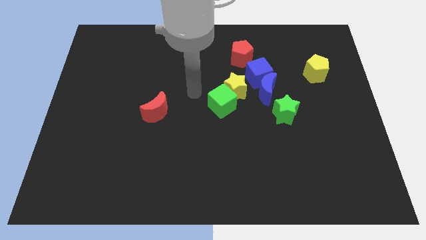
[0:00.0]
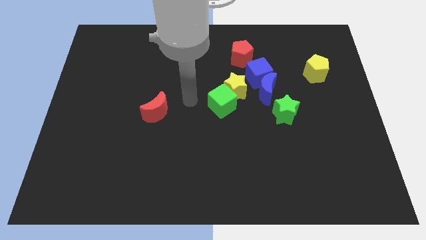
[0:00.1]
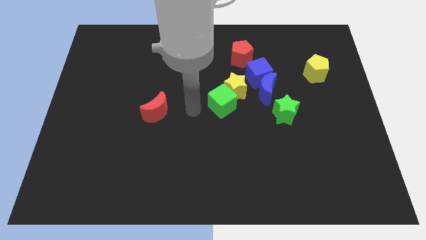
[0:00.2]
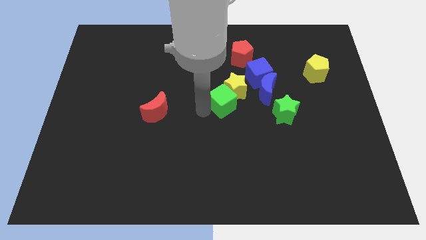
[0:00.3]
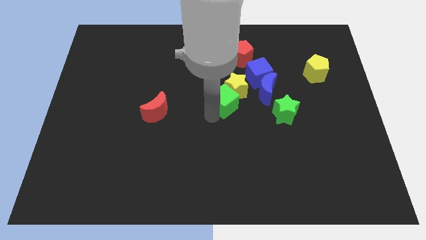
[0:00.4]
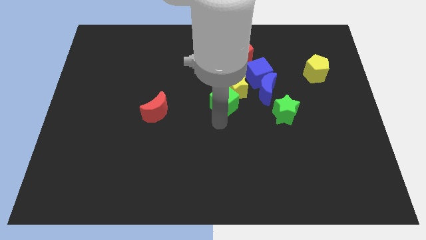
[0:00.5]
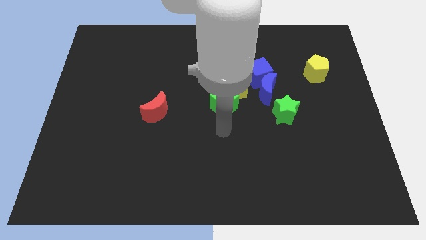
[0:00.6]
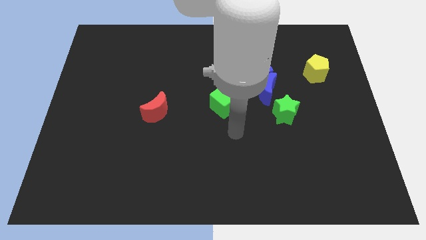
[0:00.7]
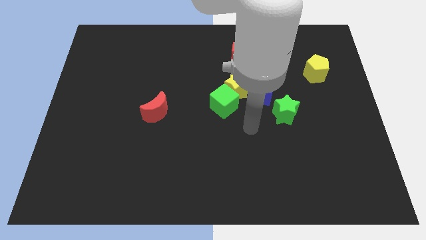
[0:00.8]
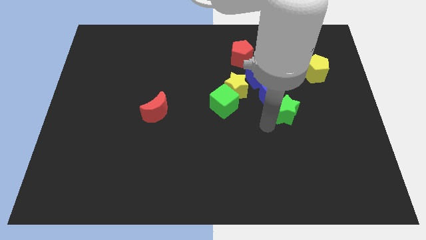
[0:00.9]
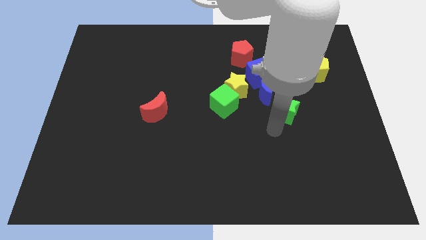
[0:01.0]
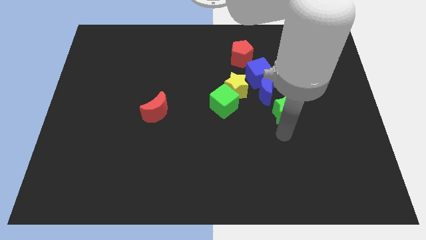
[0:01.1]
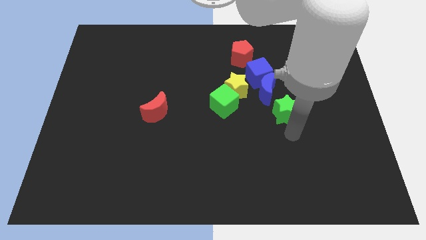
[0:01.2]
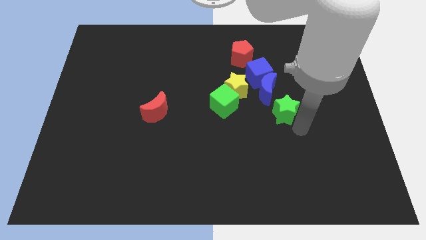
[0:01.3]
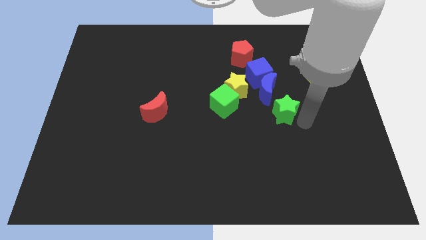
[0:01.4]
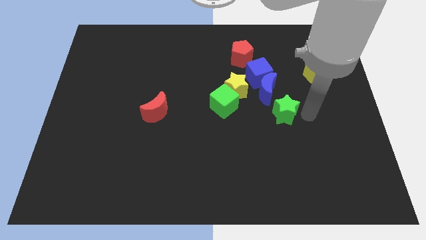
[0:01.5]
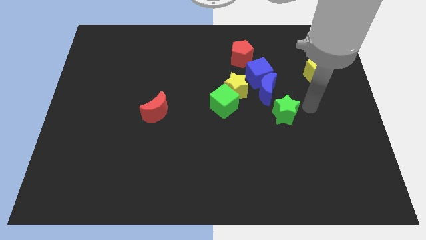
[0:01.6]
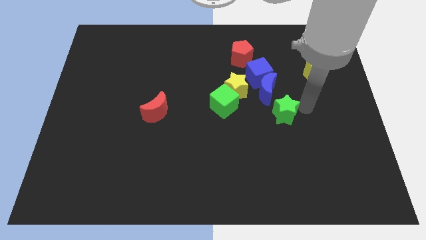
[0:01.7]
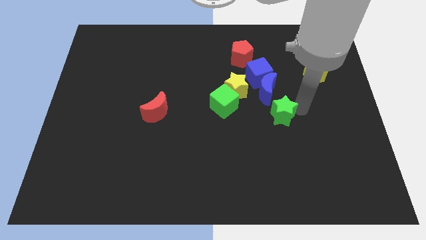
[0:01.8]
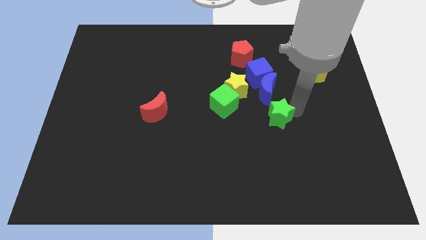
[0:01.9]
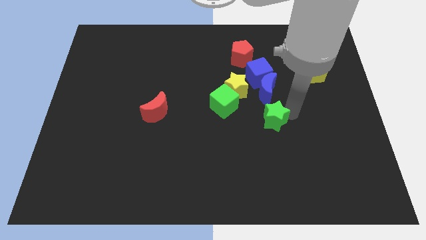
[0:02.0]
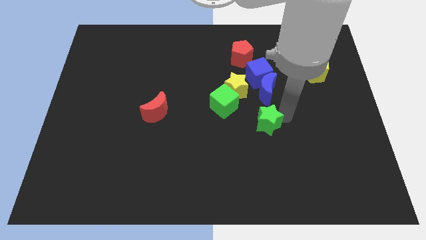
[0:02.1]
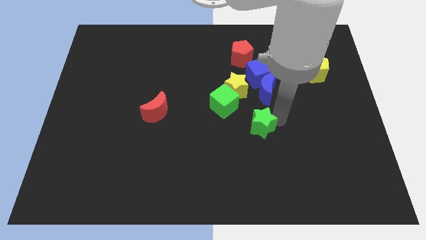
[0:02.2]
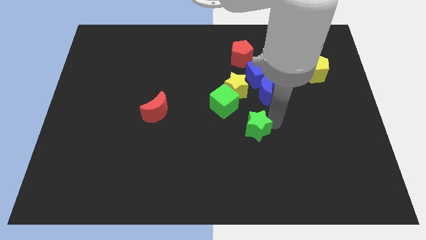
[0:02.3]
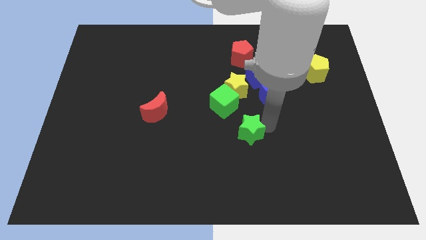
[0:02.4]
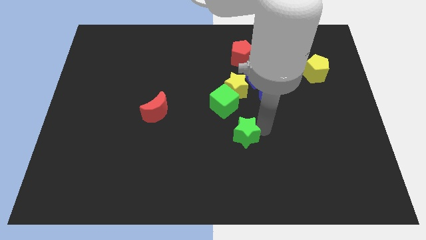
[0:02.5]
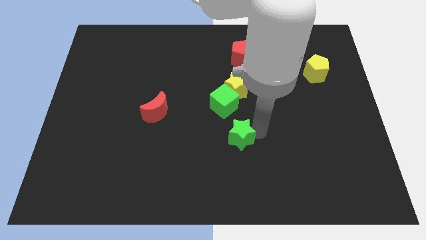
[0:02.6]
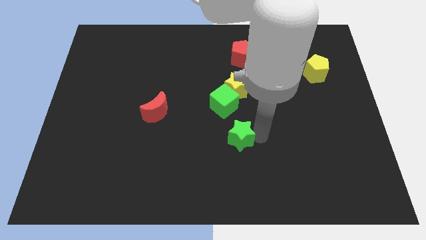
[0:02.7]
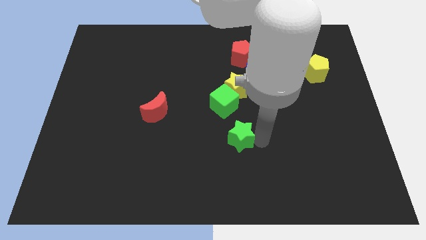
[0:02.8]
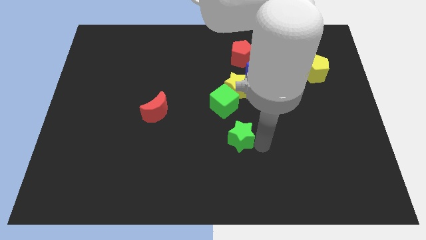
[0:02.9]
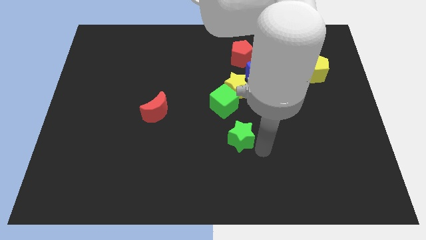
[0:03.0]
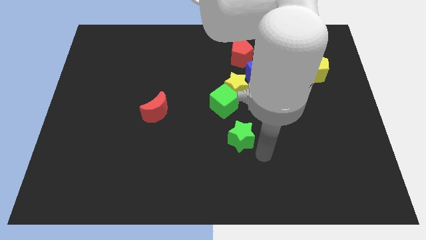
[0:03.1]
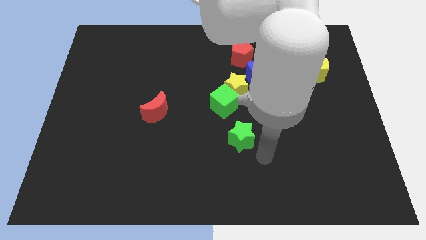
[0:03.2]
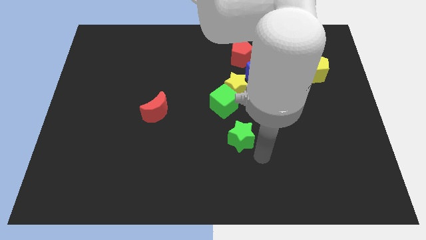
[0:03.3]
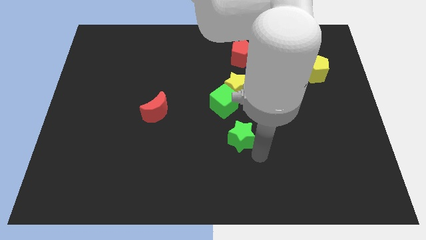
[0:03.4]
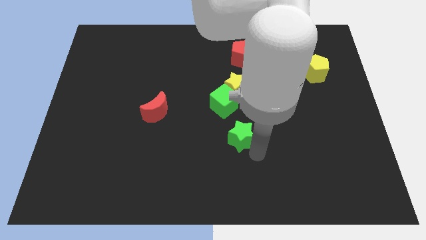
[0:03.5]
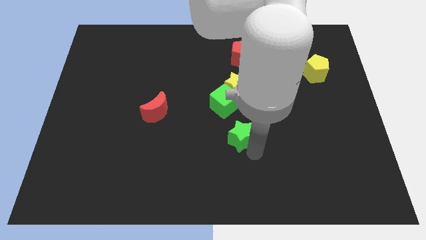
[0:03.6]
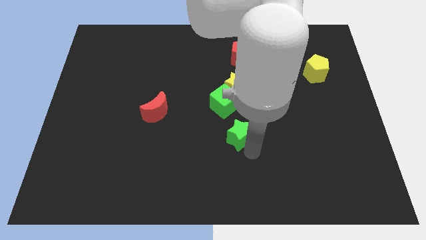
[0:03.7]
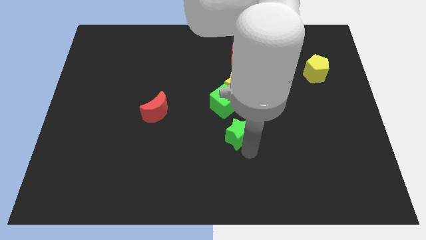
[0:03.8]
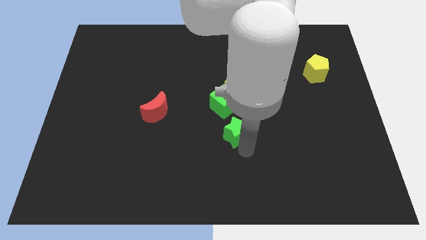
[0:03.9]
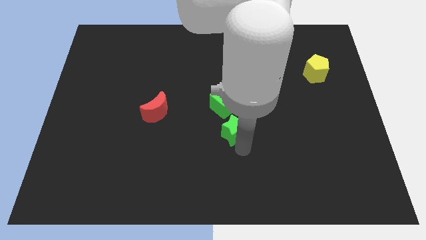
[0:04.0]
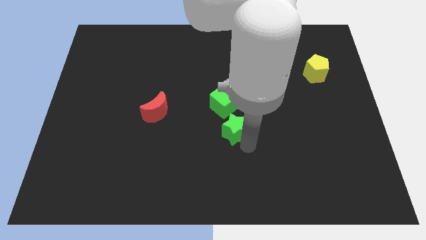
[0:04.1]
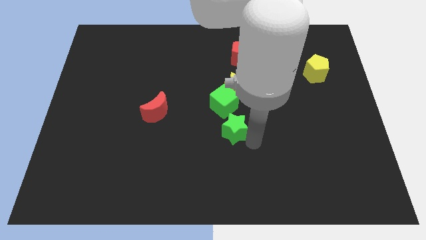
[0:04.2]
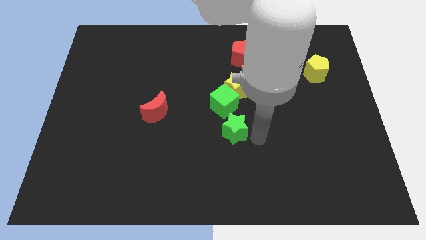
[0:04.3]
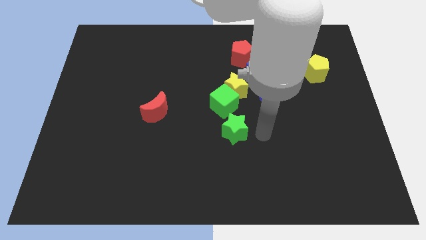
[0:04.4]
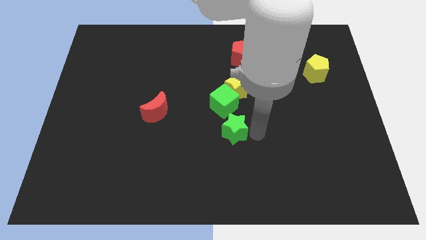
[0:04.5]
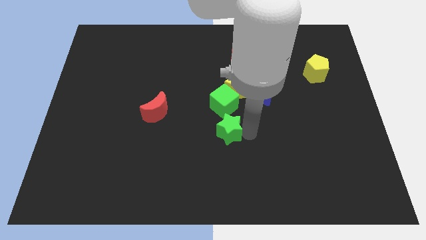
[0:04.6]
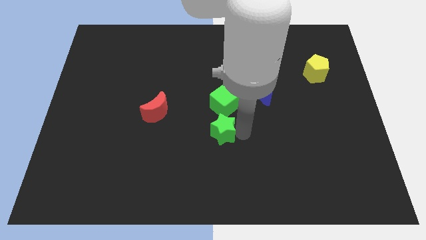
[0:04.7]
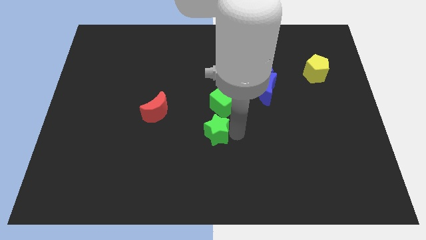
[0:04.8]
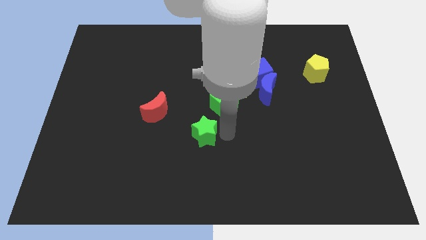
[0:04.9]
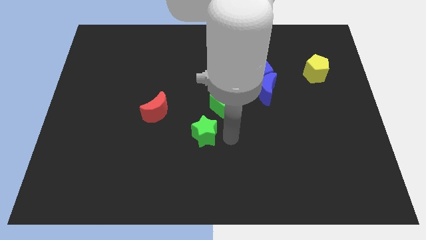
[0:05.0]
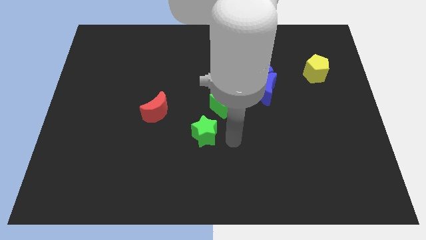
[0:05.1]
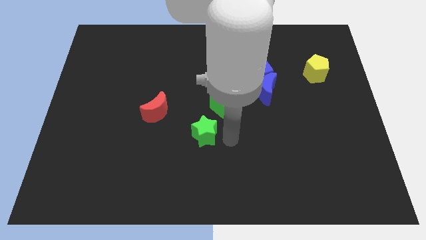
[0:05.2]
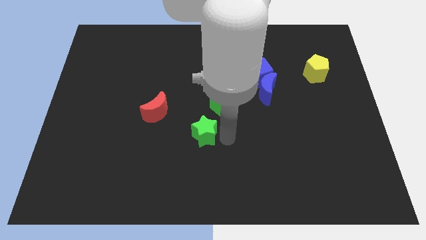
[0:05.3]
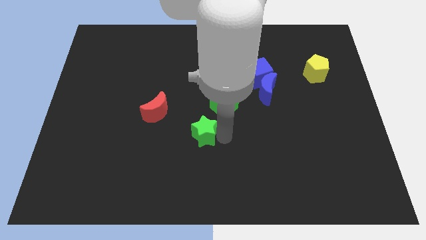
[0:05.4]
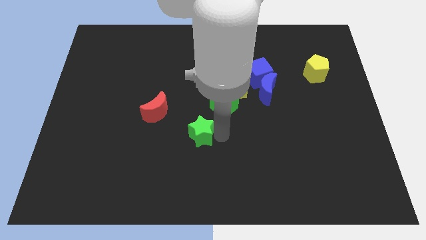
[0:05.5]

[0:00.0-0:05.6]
put the green star diagonally down and to the right of the red moon
